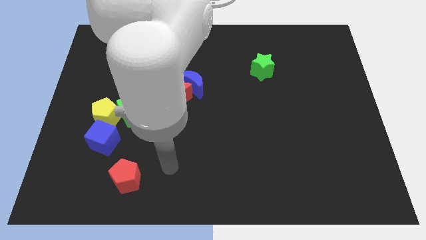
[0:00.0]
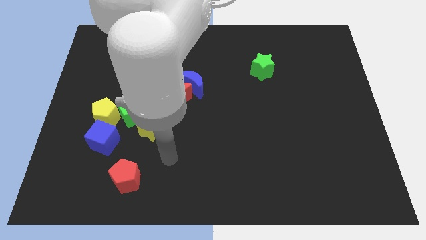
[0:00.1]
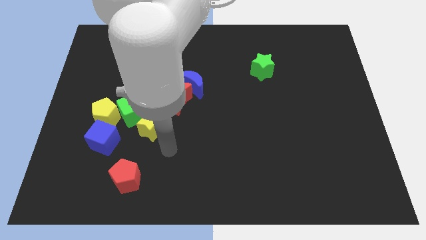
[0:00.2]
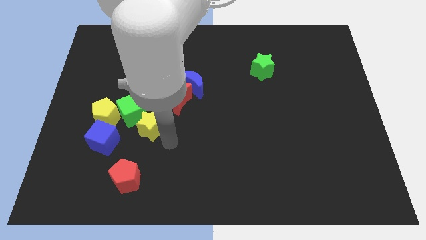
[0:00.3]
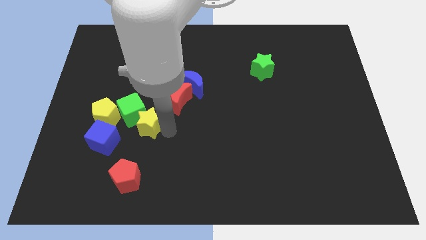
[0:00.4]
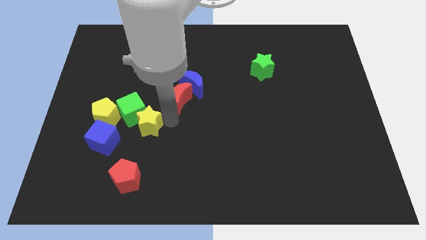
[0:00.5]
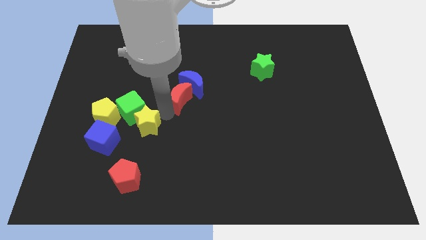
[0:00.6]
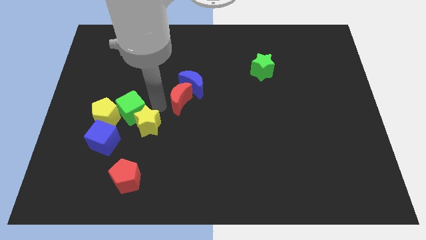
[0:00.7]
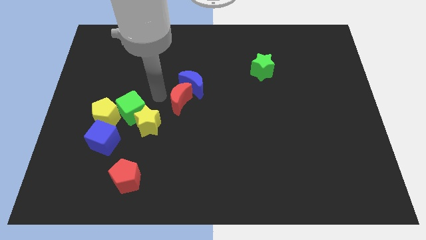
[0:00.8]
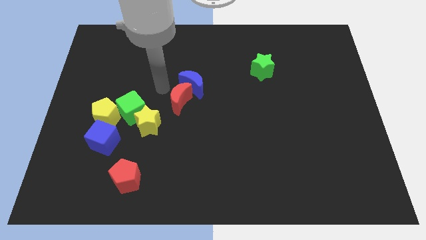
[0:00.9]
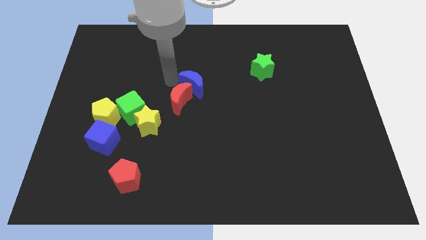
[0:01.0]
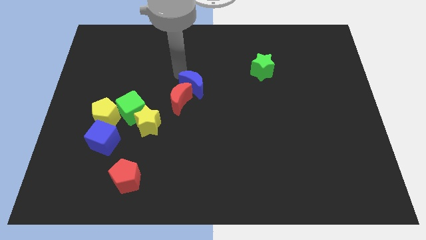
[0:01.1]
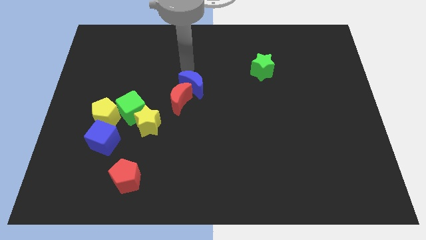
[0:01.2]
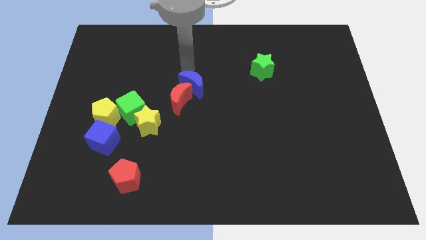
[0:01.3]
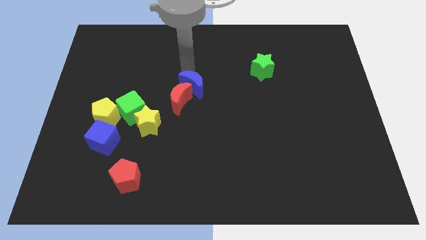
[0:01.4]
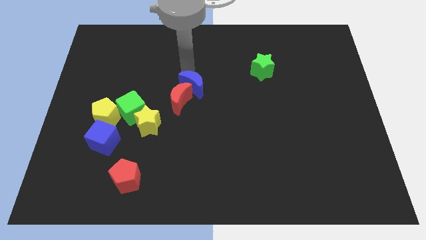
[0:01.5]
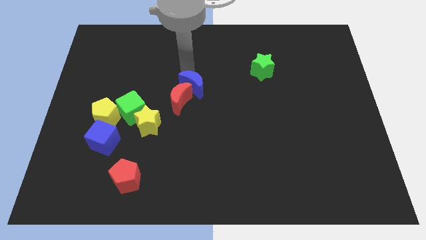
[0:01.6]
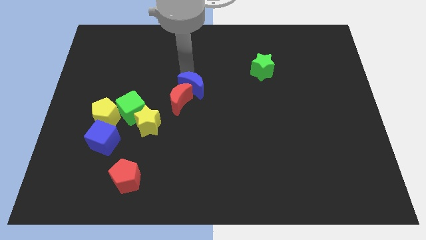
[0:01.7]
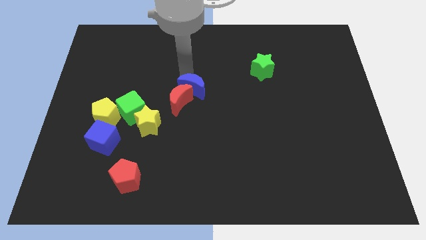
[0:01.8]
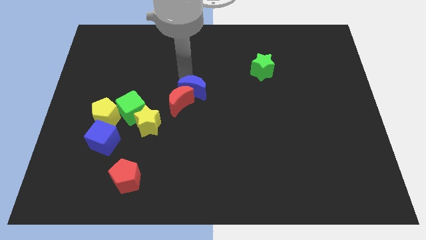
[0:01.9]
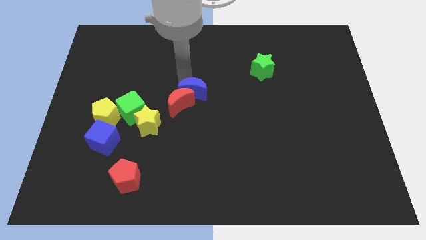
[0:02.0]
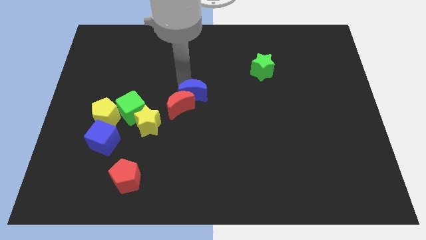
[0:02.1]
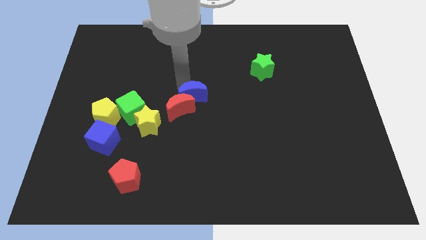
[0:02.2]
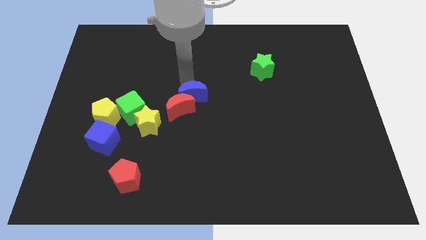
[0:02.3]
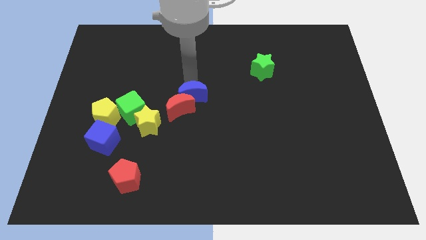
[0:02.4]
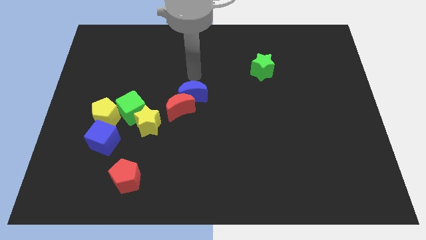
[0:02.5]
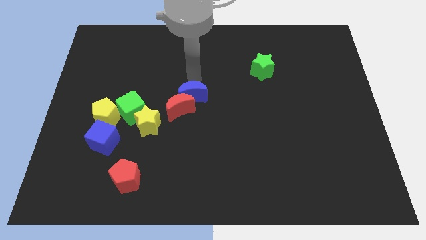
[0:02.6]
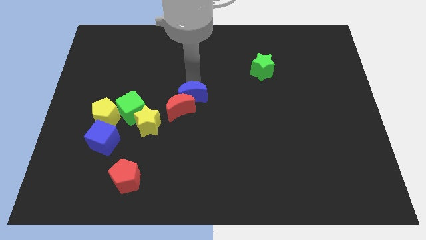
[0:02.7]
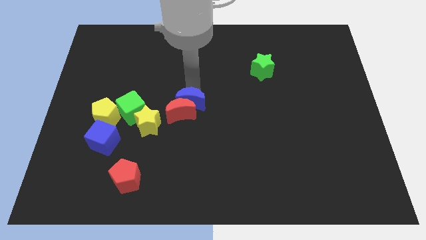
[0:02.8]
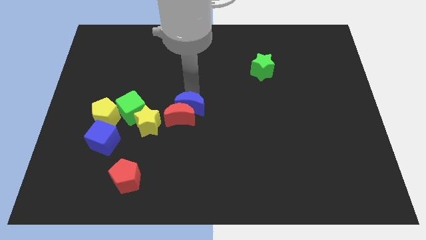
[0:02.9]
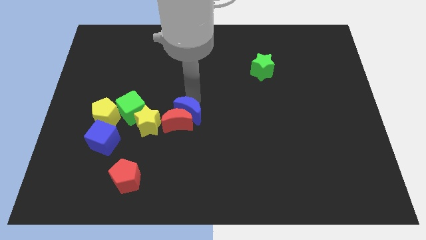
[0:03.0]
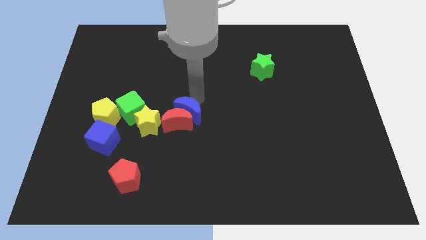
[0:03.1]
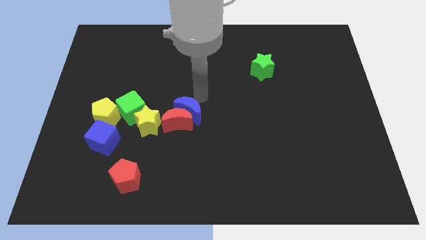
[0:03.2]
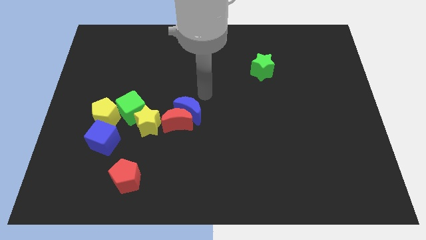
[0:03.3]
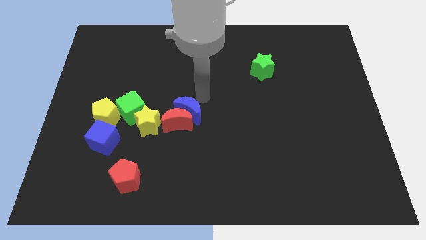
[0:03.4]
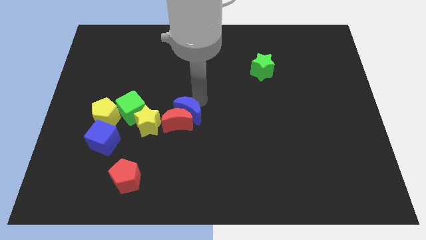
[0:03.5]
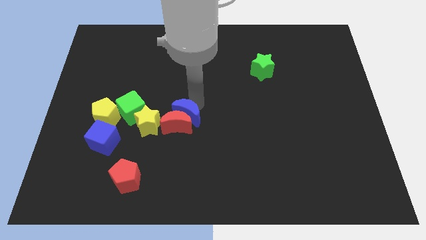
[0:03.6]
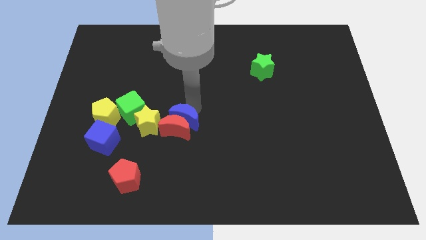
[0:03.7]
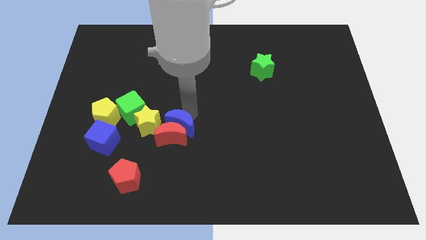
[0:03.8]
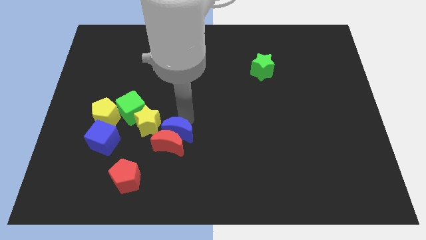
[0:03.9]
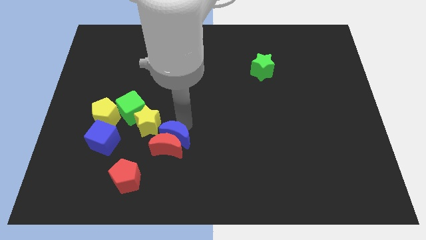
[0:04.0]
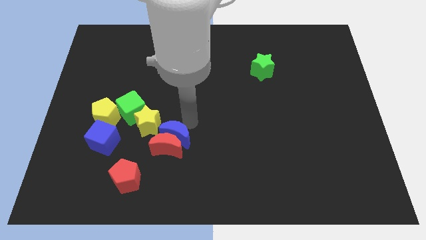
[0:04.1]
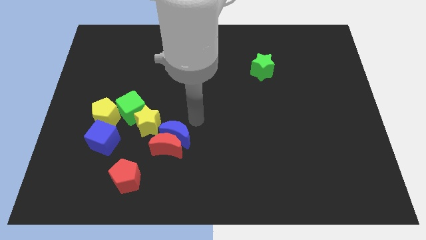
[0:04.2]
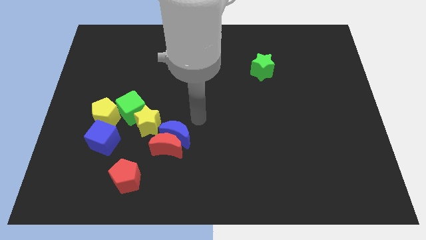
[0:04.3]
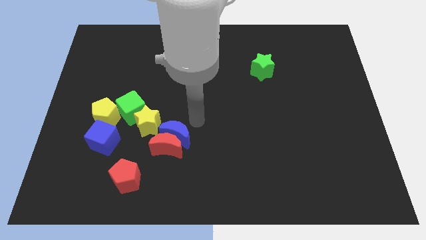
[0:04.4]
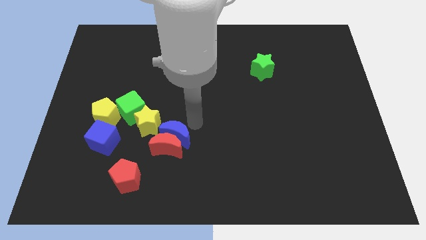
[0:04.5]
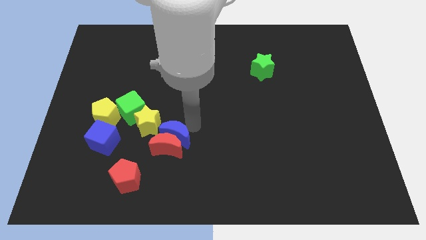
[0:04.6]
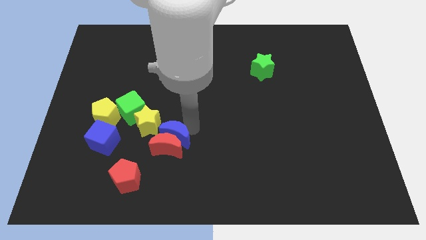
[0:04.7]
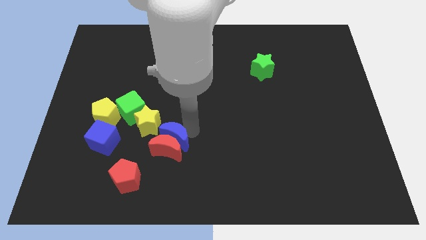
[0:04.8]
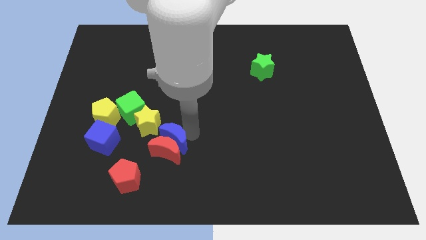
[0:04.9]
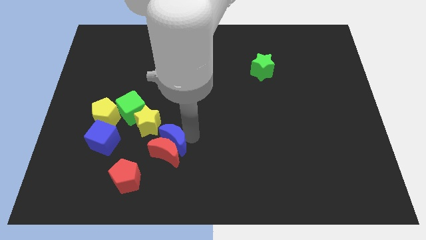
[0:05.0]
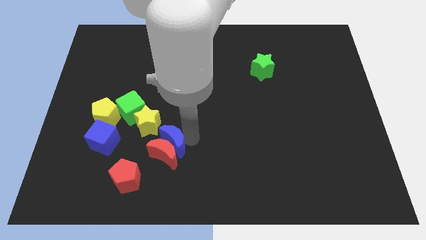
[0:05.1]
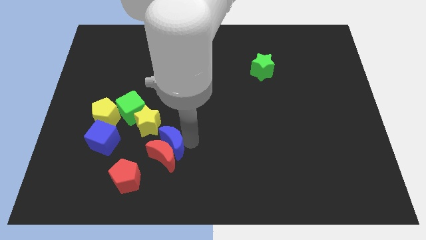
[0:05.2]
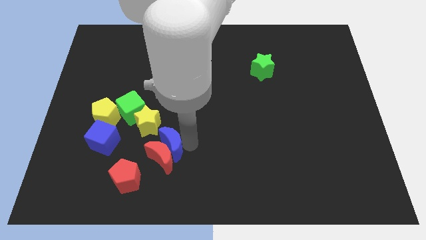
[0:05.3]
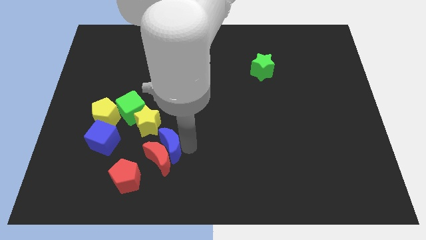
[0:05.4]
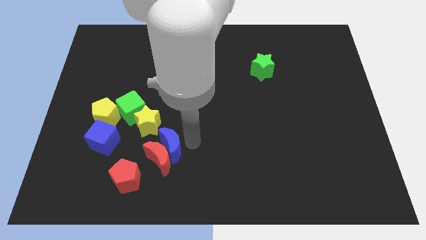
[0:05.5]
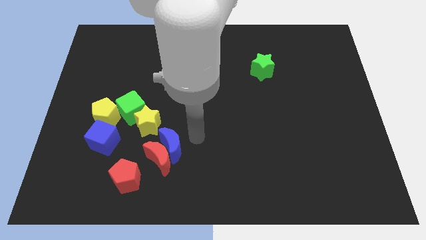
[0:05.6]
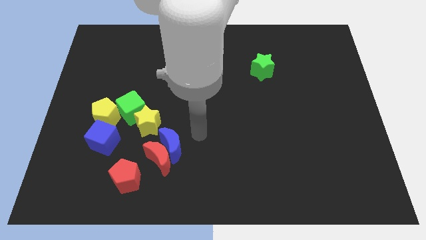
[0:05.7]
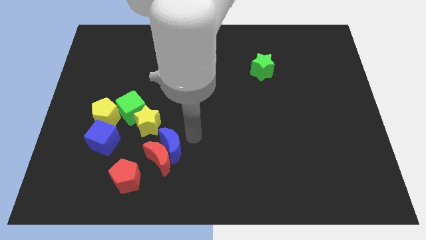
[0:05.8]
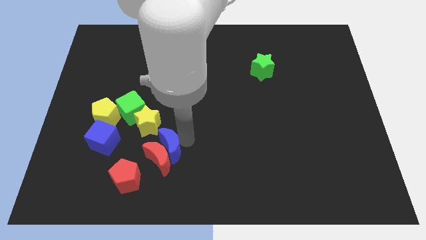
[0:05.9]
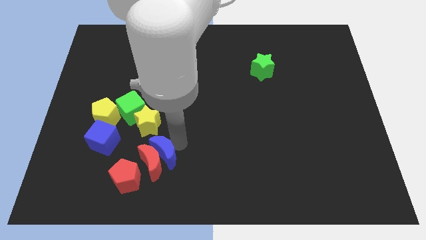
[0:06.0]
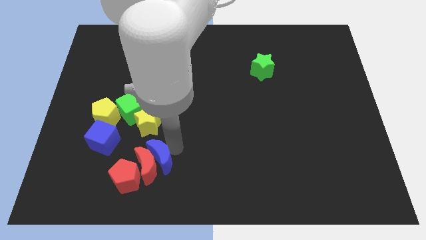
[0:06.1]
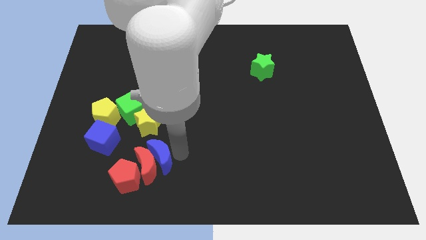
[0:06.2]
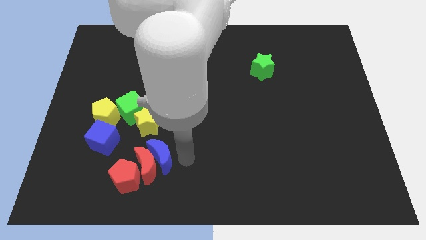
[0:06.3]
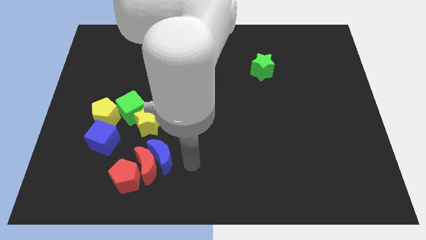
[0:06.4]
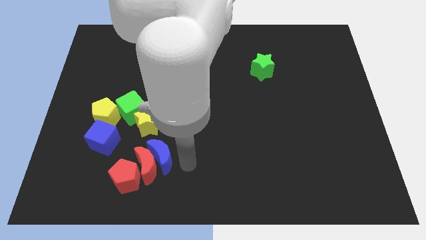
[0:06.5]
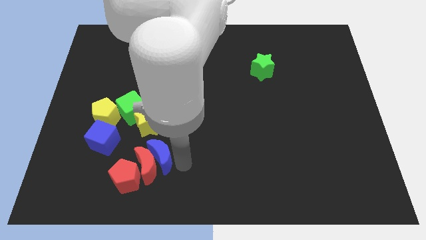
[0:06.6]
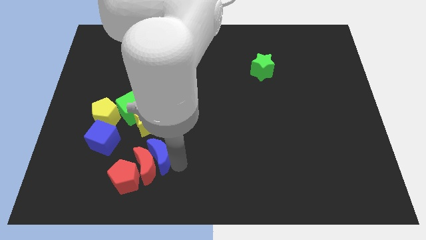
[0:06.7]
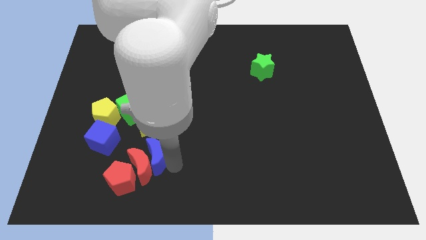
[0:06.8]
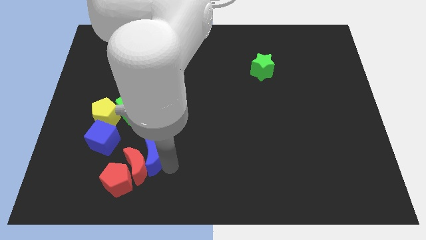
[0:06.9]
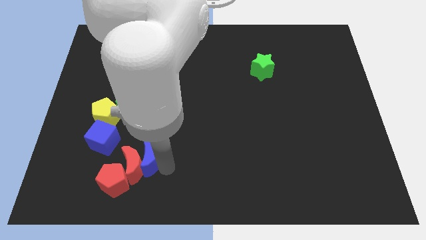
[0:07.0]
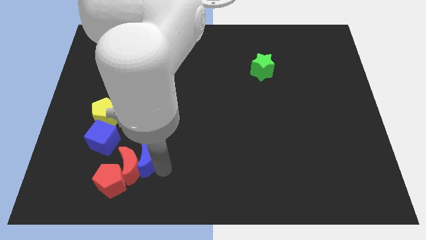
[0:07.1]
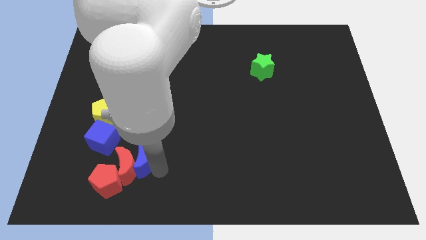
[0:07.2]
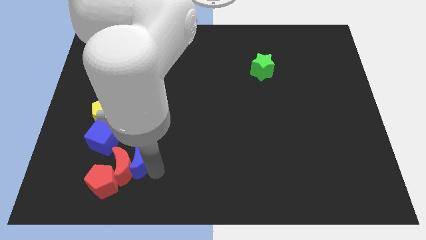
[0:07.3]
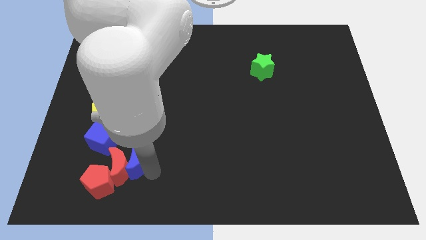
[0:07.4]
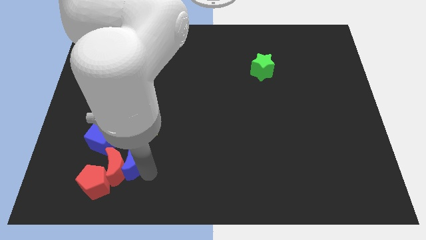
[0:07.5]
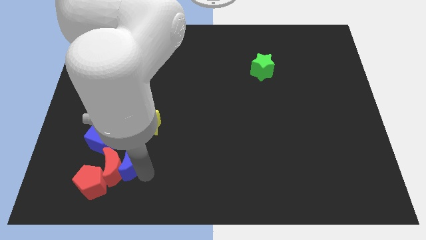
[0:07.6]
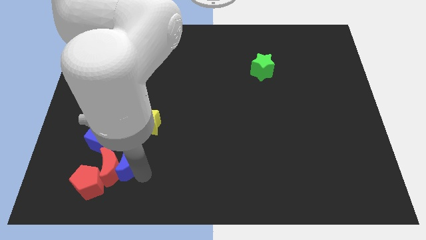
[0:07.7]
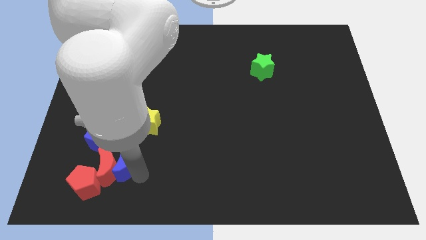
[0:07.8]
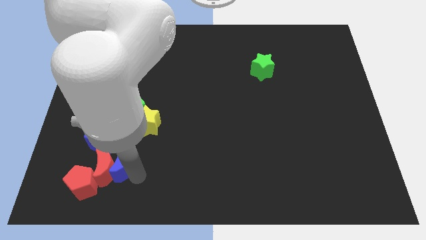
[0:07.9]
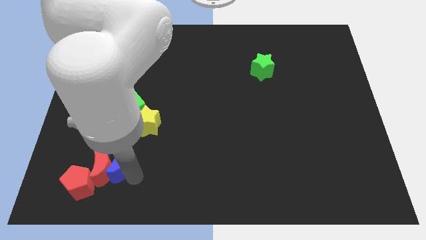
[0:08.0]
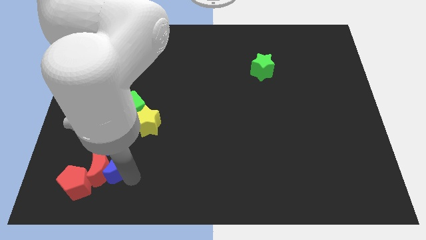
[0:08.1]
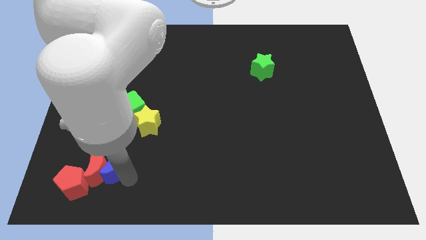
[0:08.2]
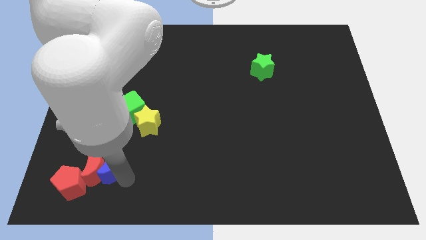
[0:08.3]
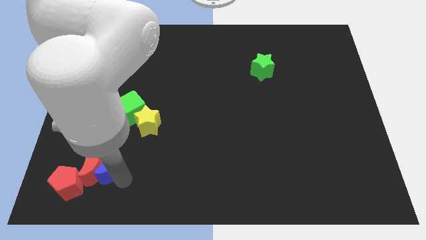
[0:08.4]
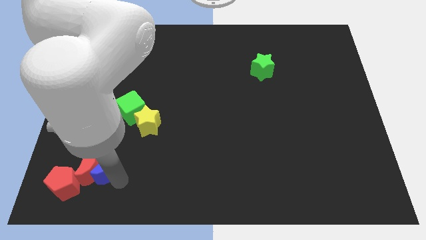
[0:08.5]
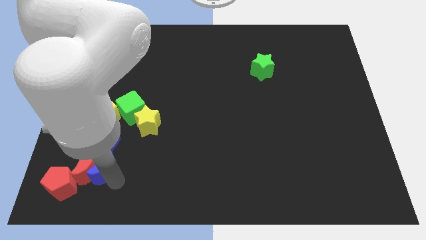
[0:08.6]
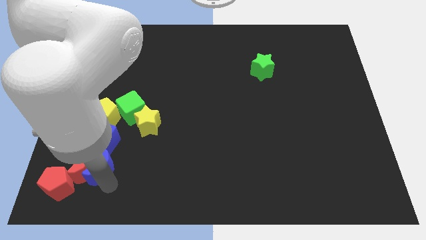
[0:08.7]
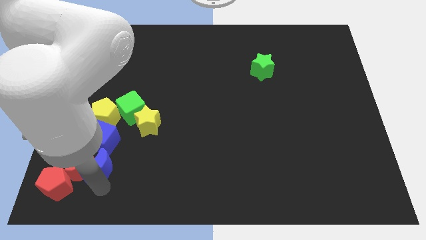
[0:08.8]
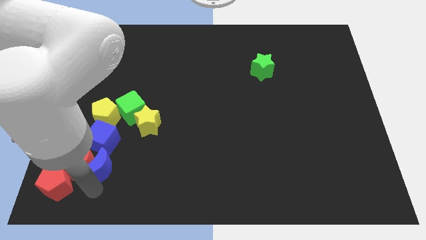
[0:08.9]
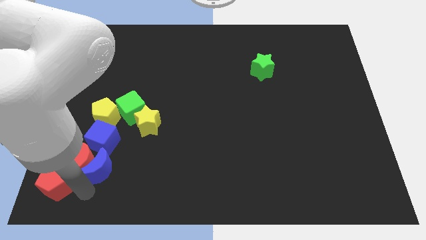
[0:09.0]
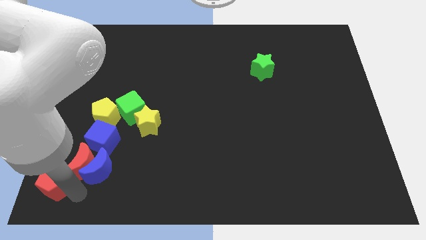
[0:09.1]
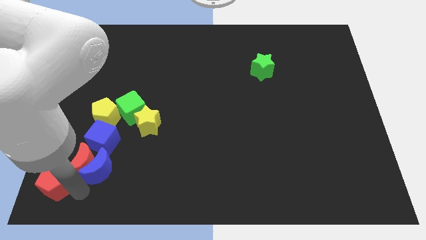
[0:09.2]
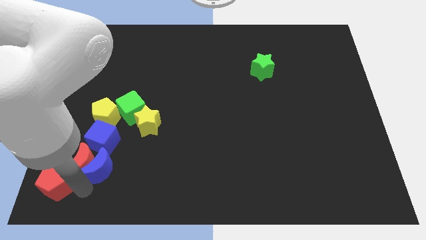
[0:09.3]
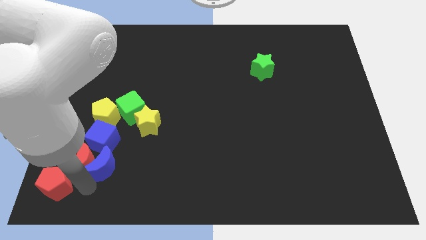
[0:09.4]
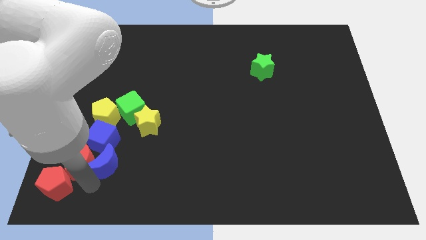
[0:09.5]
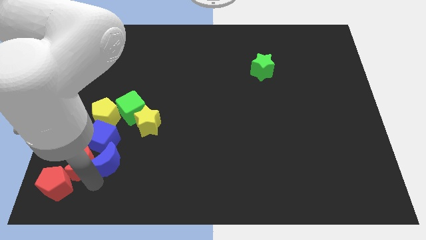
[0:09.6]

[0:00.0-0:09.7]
push the blue moon close to the blue cube
